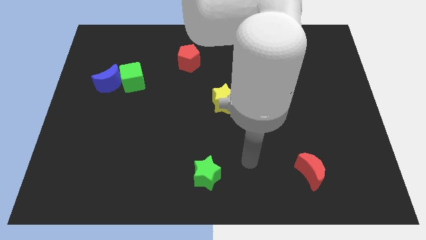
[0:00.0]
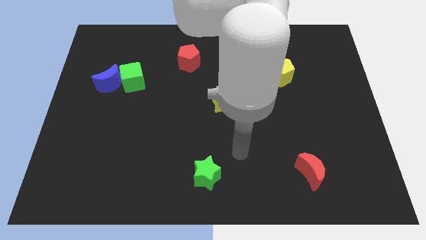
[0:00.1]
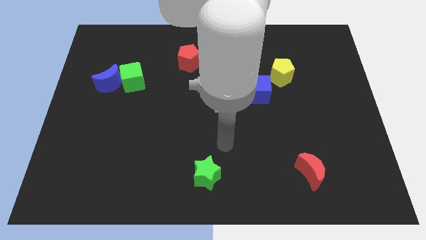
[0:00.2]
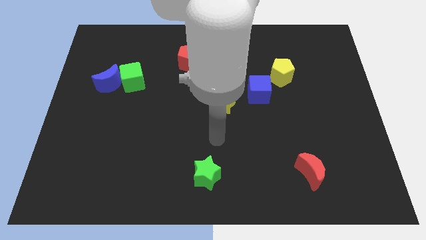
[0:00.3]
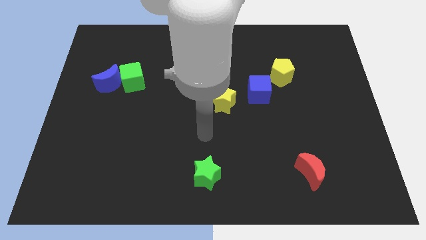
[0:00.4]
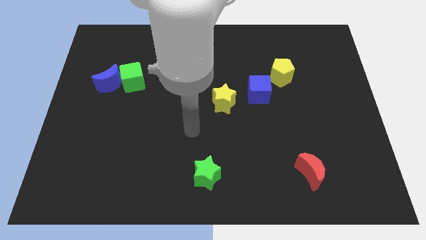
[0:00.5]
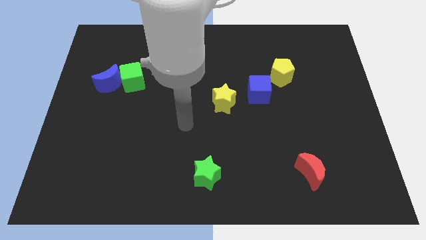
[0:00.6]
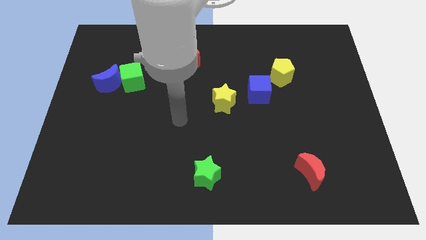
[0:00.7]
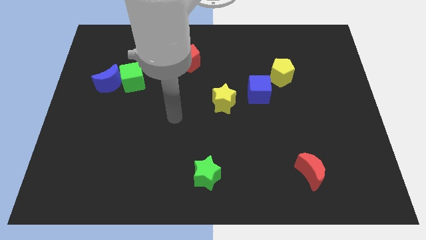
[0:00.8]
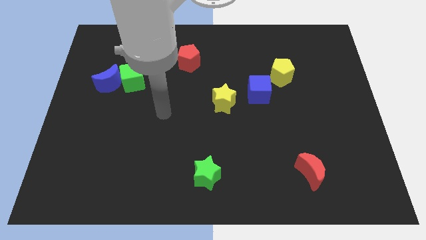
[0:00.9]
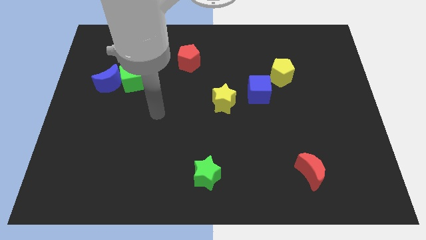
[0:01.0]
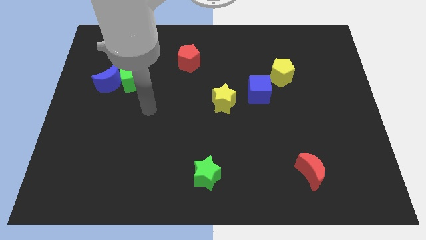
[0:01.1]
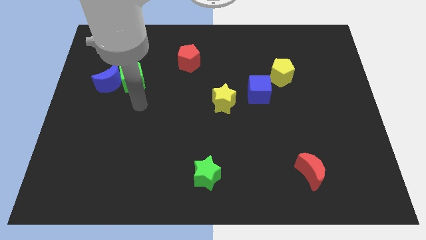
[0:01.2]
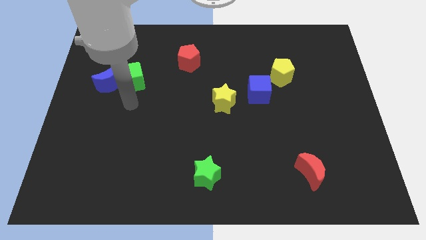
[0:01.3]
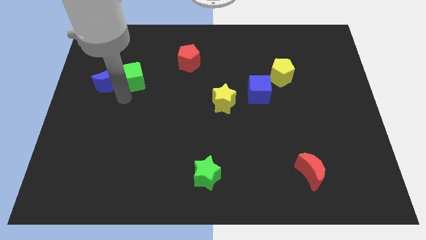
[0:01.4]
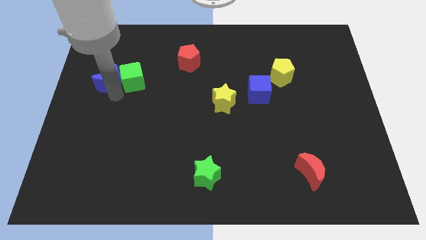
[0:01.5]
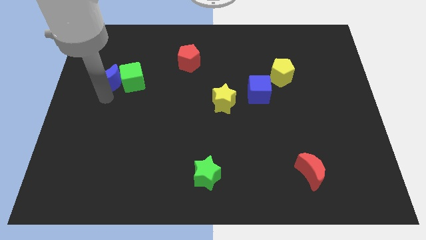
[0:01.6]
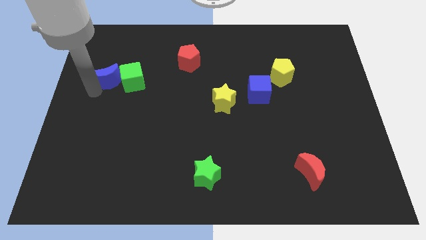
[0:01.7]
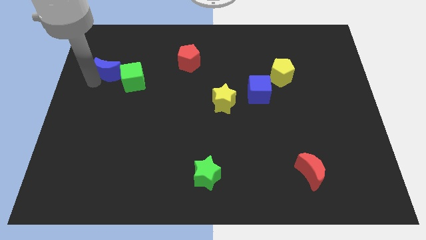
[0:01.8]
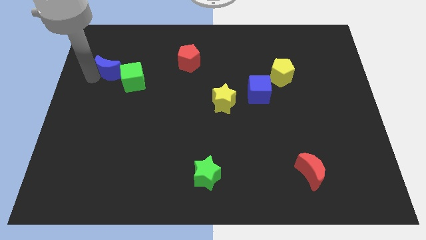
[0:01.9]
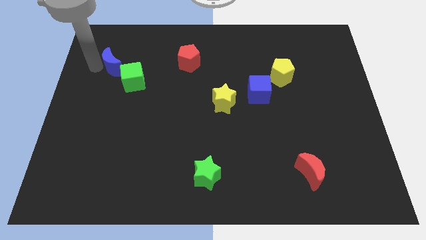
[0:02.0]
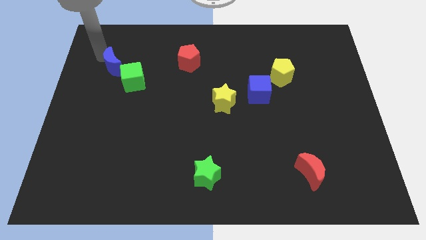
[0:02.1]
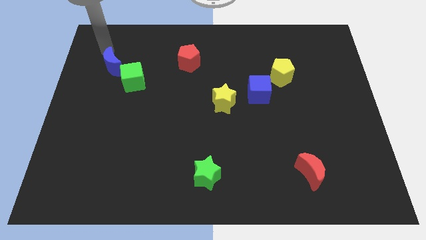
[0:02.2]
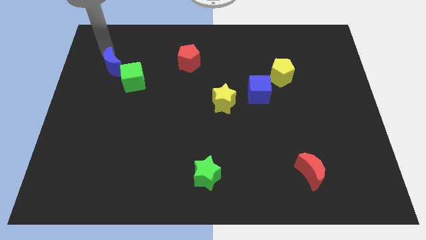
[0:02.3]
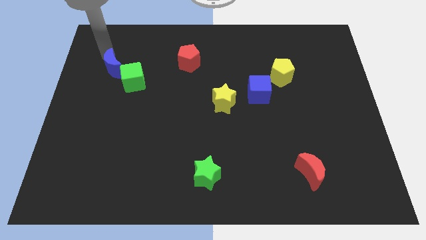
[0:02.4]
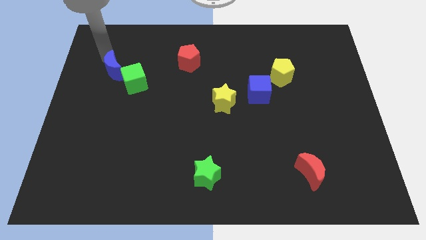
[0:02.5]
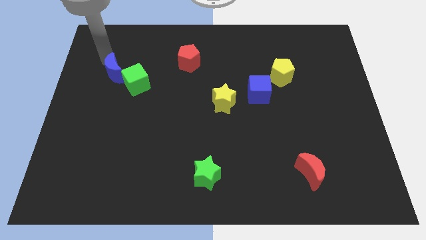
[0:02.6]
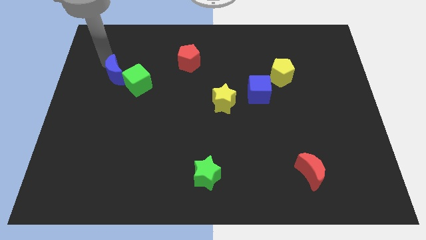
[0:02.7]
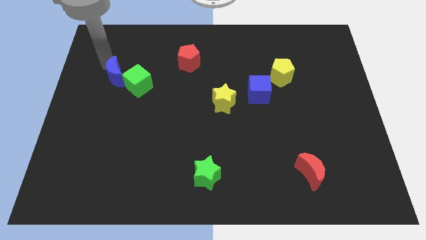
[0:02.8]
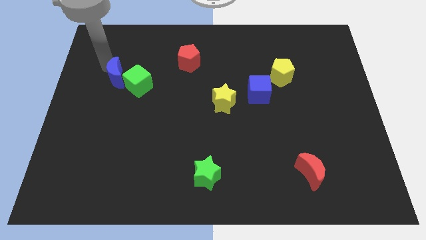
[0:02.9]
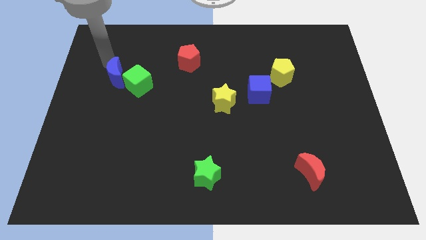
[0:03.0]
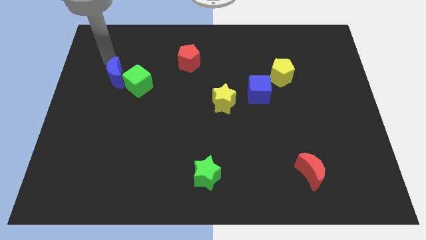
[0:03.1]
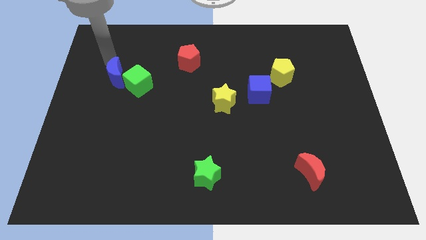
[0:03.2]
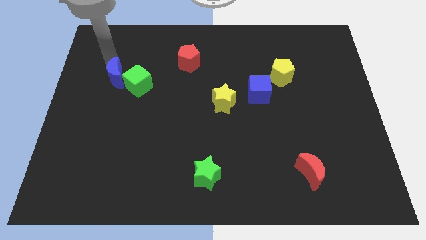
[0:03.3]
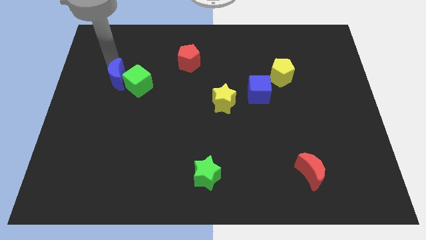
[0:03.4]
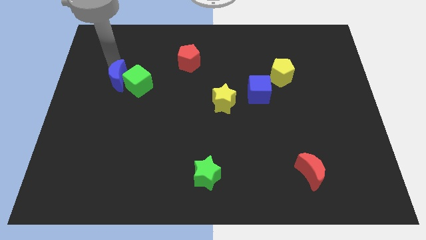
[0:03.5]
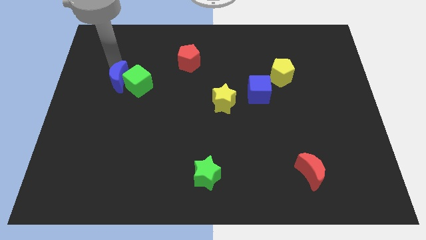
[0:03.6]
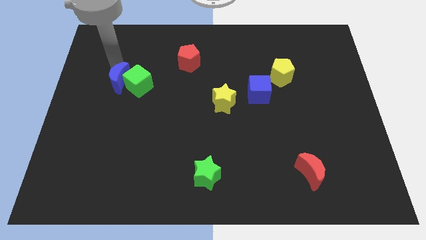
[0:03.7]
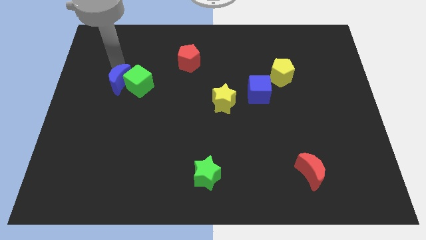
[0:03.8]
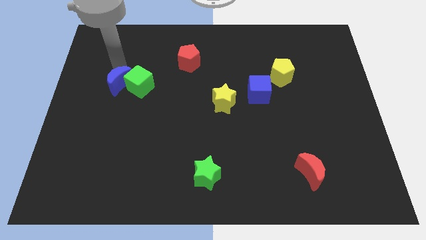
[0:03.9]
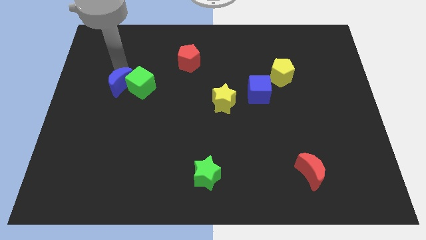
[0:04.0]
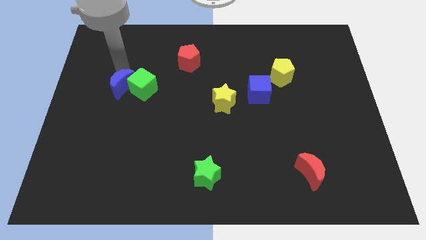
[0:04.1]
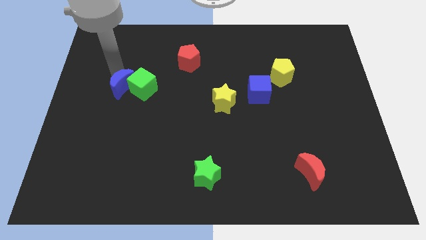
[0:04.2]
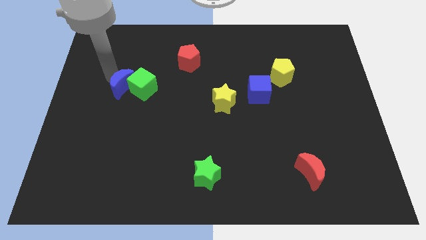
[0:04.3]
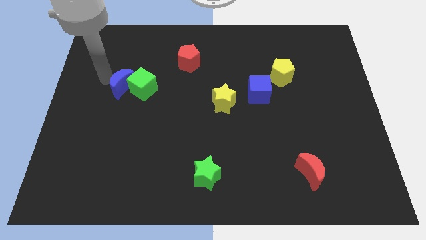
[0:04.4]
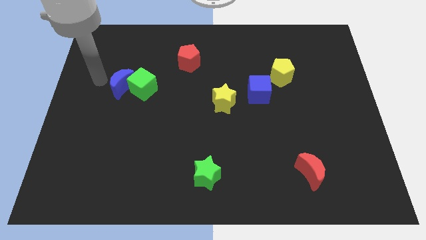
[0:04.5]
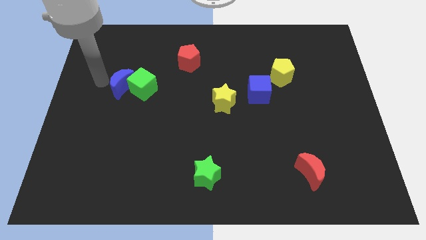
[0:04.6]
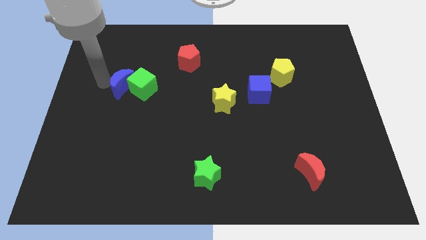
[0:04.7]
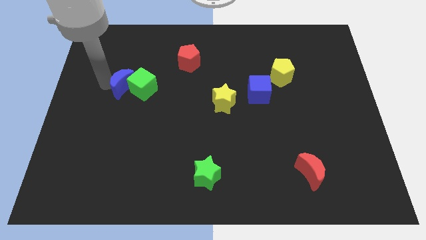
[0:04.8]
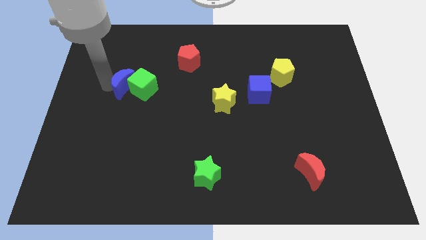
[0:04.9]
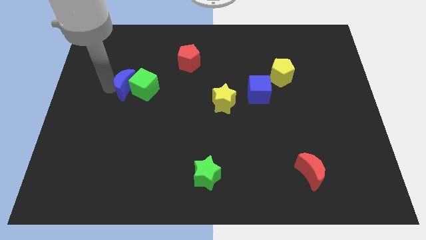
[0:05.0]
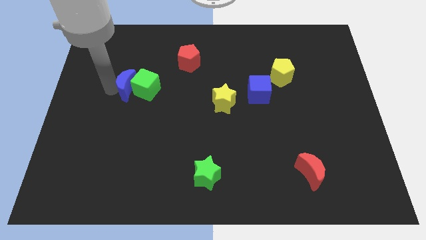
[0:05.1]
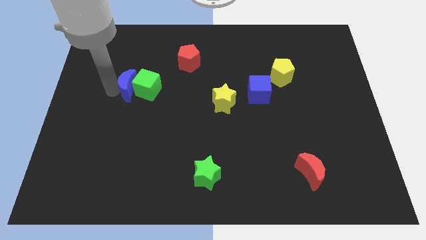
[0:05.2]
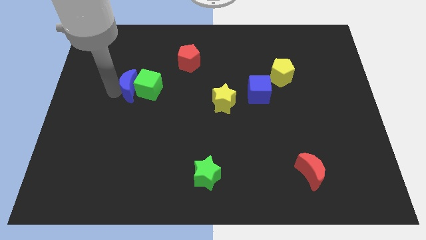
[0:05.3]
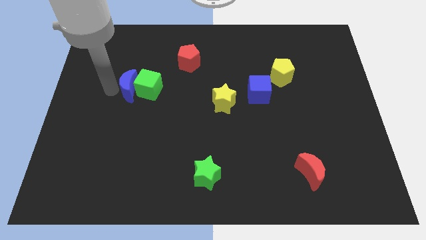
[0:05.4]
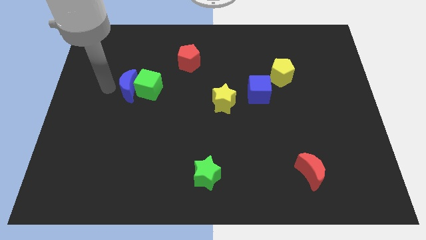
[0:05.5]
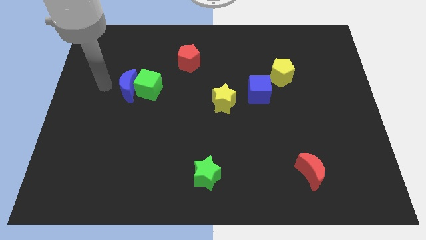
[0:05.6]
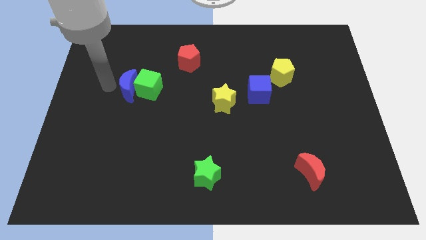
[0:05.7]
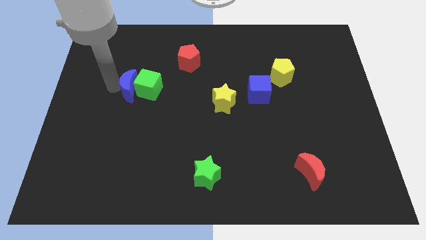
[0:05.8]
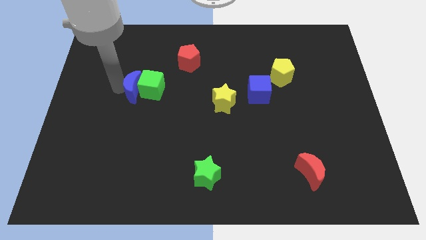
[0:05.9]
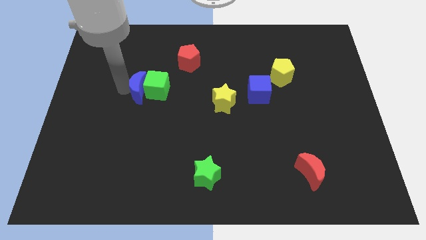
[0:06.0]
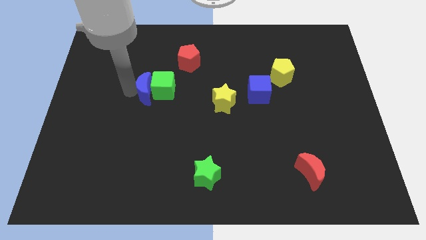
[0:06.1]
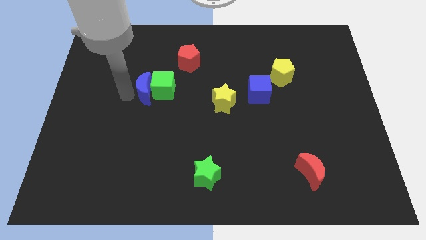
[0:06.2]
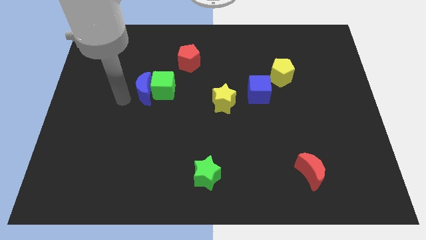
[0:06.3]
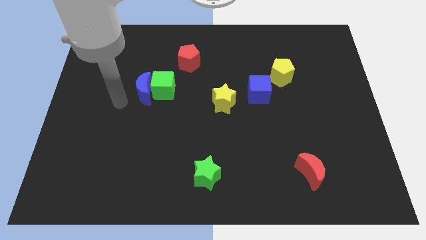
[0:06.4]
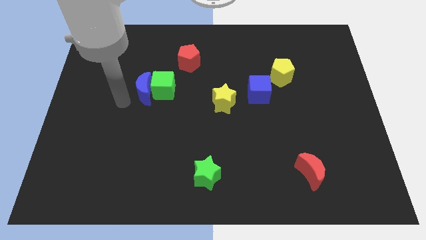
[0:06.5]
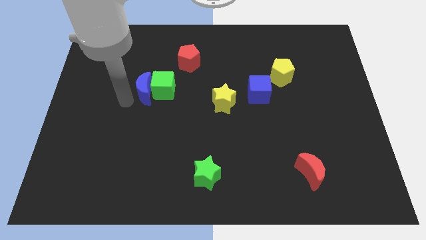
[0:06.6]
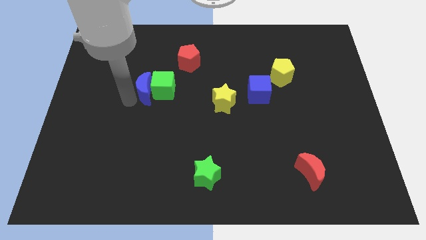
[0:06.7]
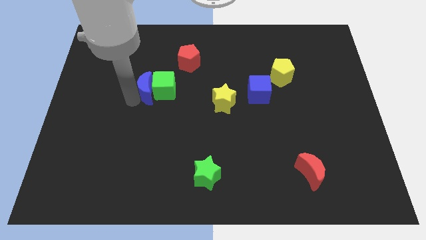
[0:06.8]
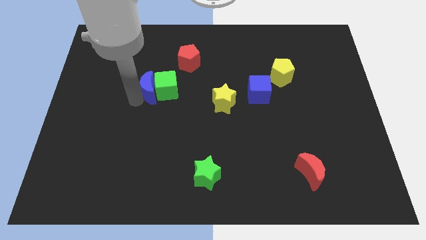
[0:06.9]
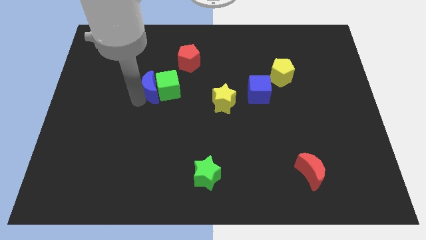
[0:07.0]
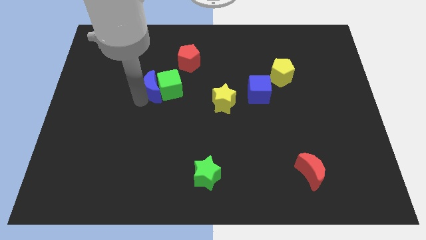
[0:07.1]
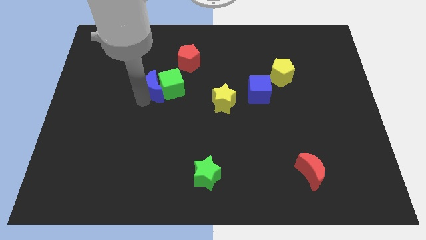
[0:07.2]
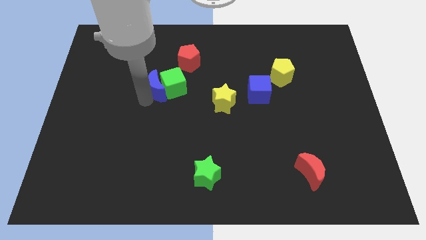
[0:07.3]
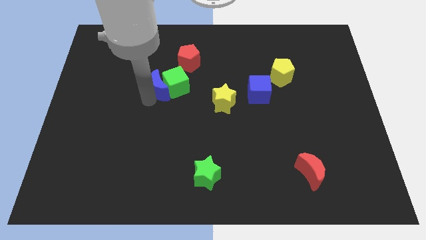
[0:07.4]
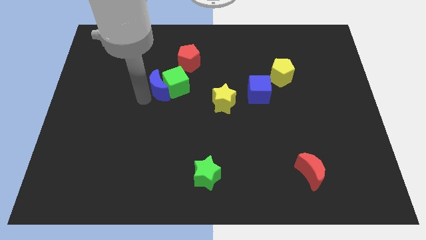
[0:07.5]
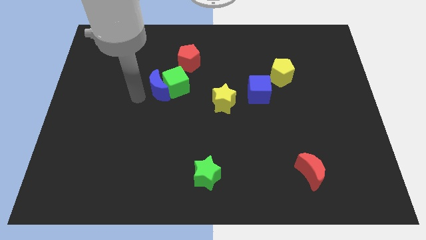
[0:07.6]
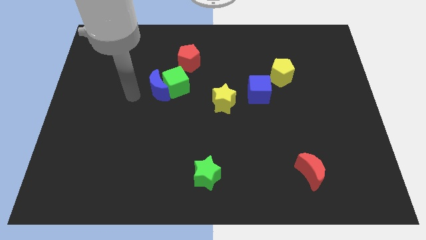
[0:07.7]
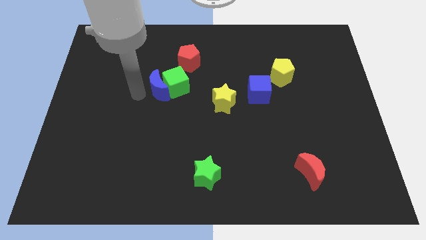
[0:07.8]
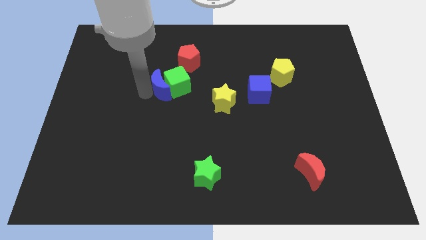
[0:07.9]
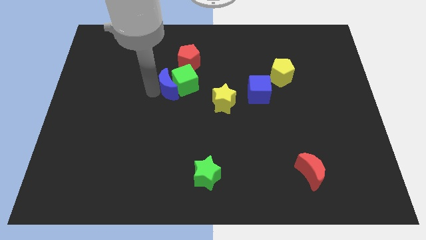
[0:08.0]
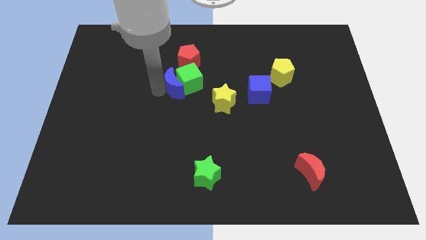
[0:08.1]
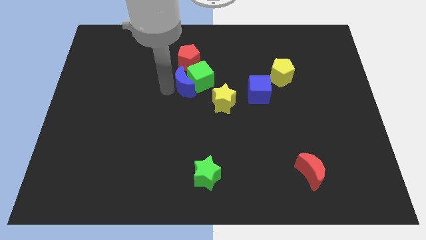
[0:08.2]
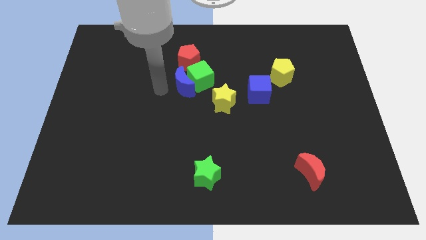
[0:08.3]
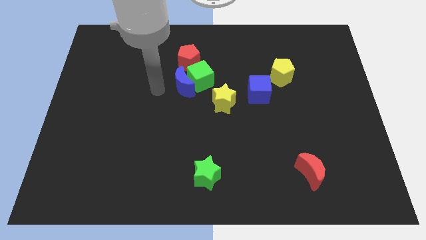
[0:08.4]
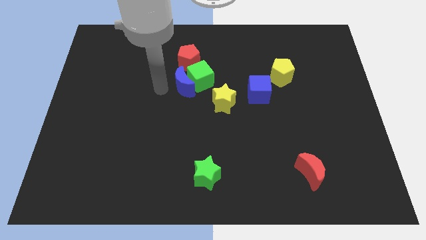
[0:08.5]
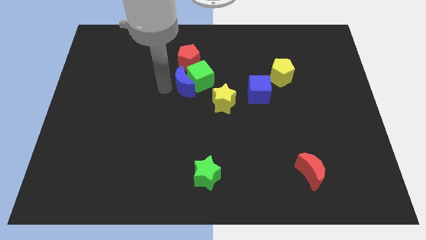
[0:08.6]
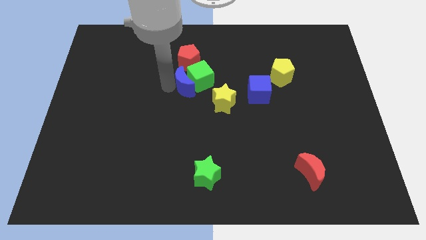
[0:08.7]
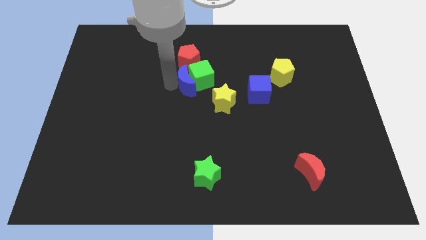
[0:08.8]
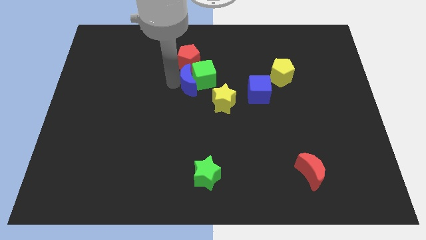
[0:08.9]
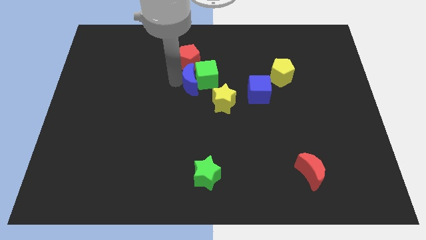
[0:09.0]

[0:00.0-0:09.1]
move the blue moon right
